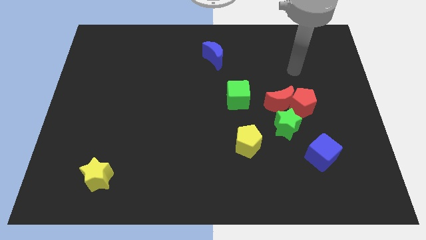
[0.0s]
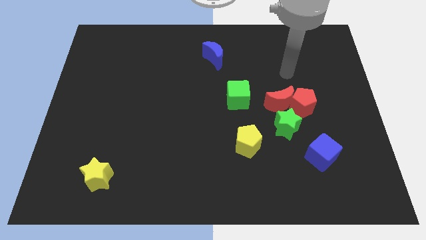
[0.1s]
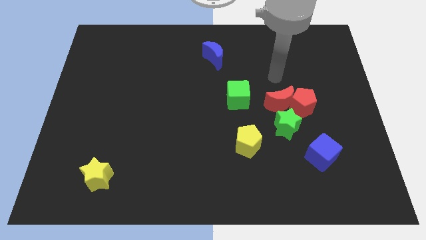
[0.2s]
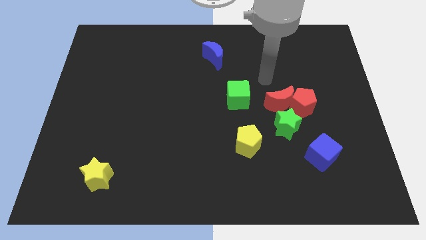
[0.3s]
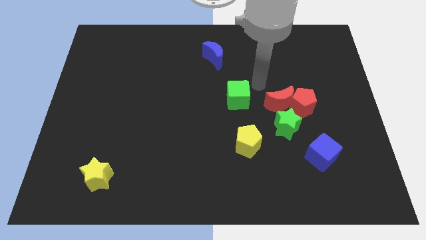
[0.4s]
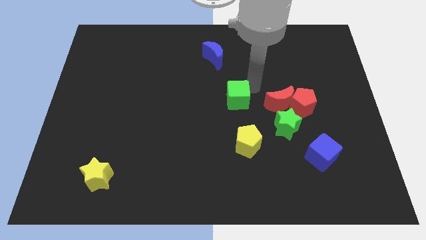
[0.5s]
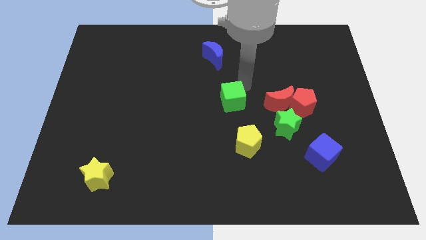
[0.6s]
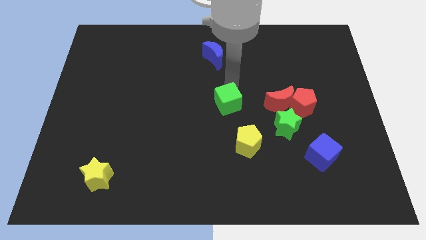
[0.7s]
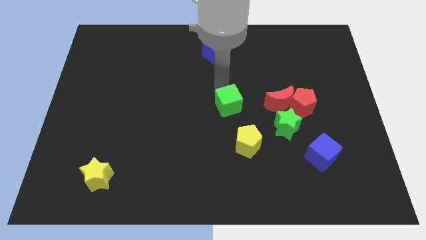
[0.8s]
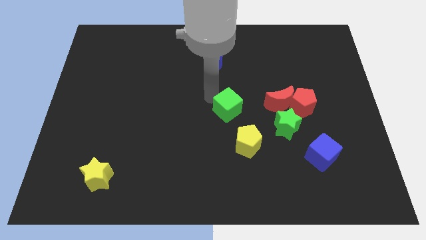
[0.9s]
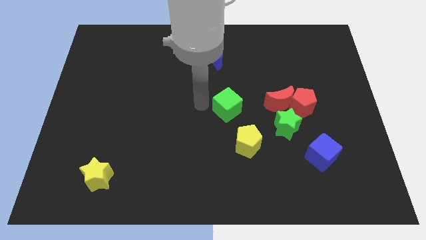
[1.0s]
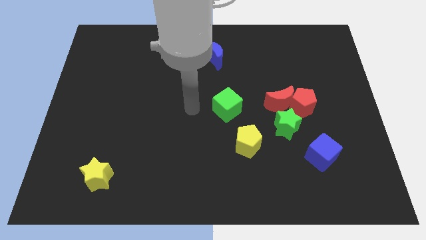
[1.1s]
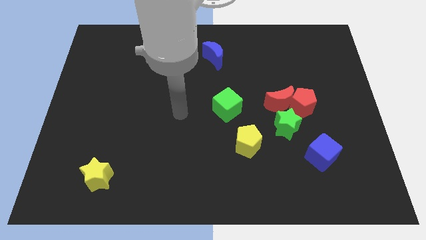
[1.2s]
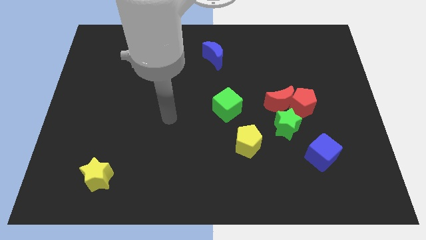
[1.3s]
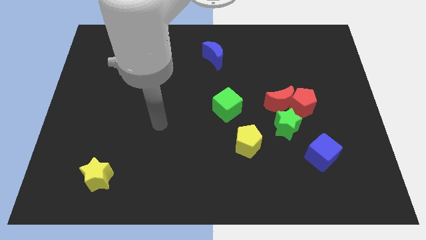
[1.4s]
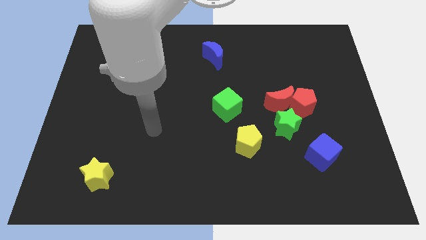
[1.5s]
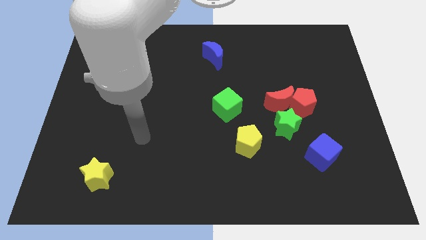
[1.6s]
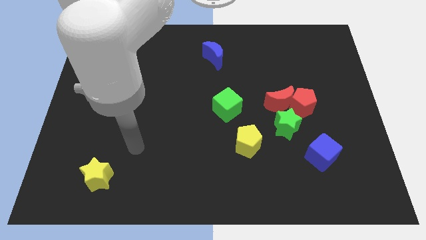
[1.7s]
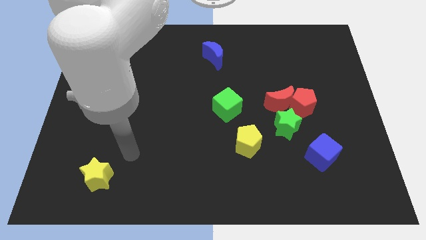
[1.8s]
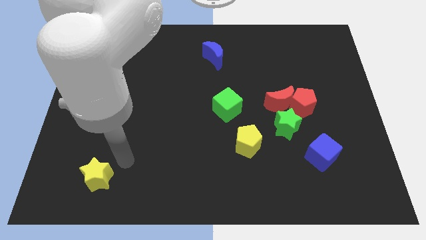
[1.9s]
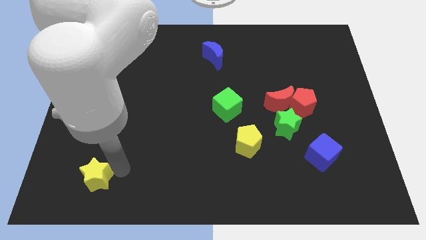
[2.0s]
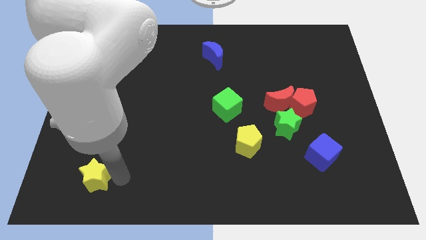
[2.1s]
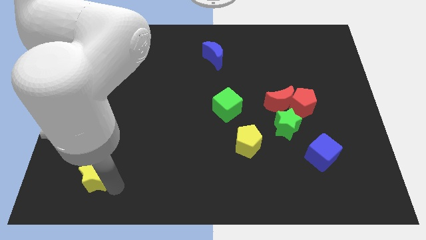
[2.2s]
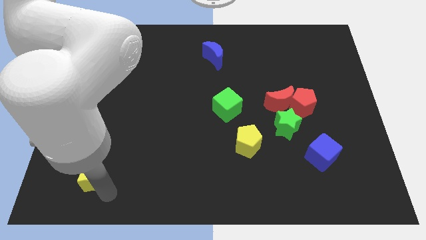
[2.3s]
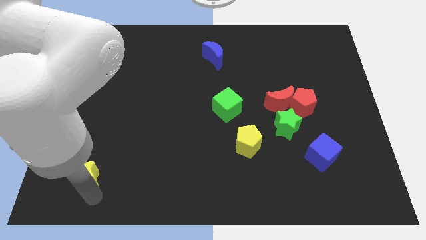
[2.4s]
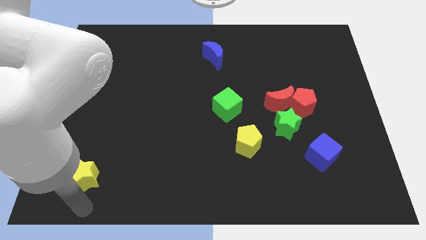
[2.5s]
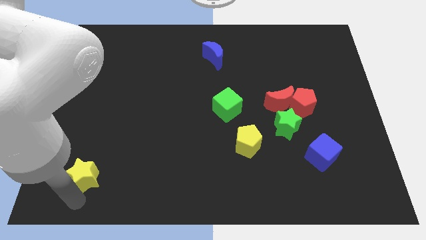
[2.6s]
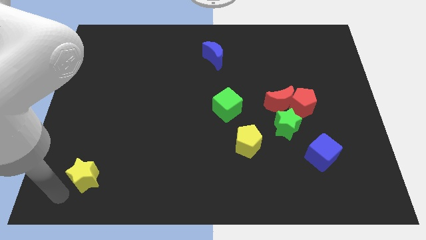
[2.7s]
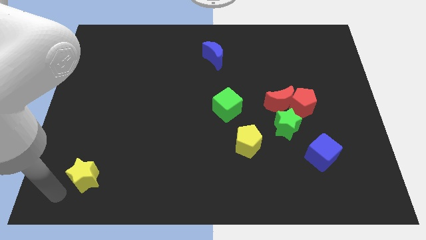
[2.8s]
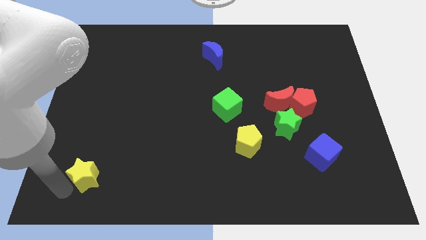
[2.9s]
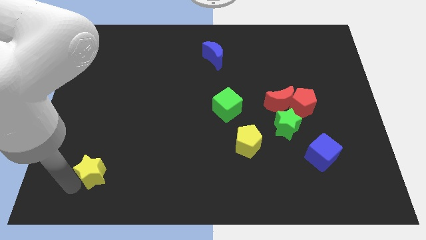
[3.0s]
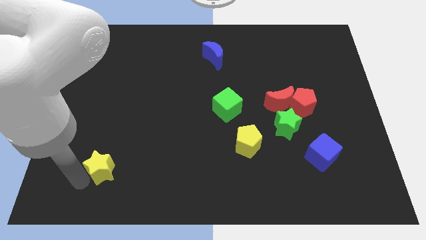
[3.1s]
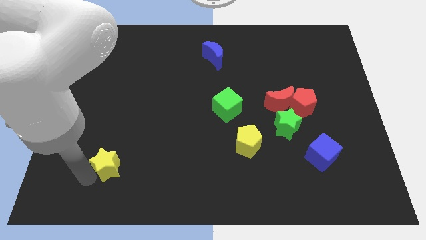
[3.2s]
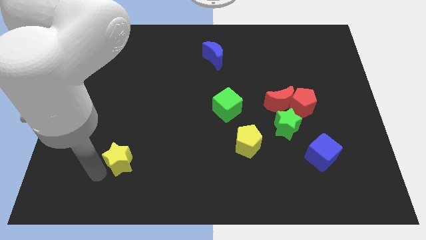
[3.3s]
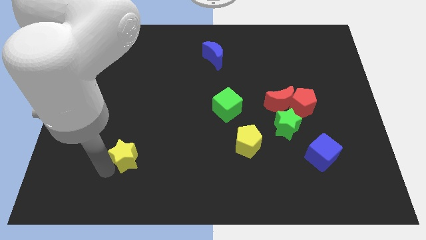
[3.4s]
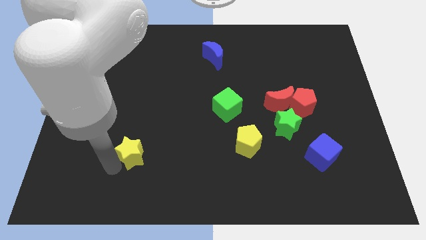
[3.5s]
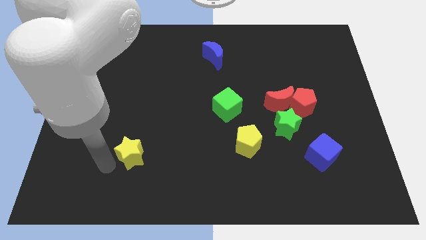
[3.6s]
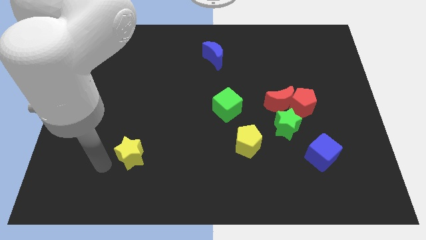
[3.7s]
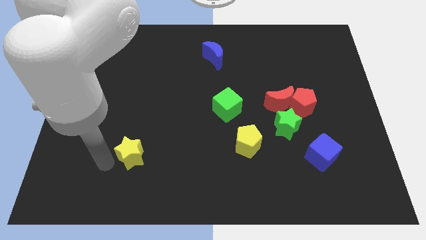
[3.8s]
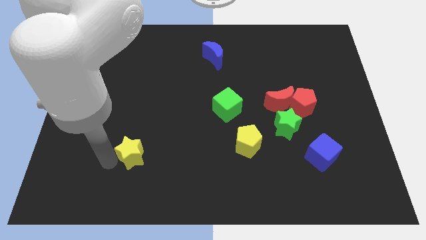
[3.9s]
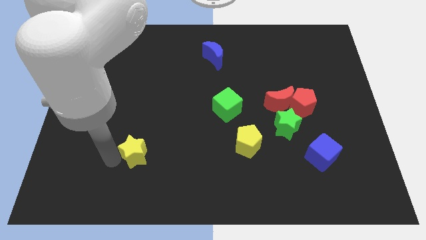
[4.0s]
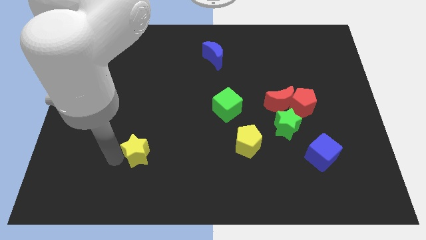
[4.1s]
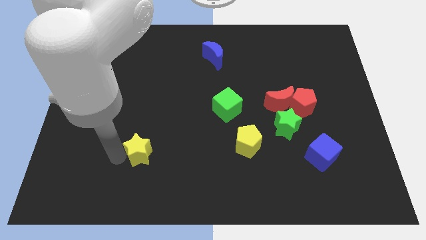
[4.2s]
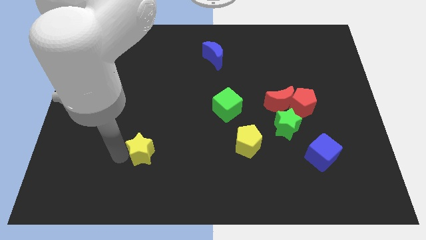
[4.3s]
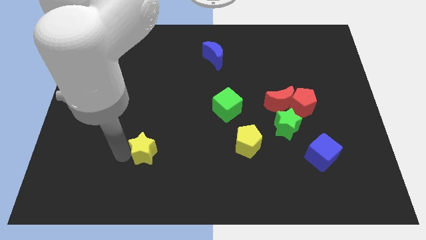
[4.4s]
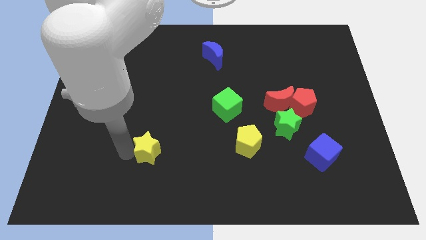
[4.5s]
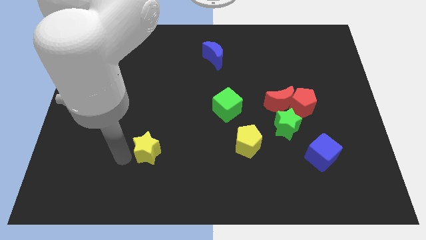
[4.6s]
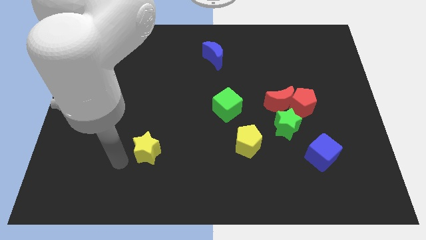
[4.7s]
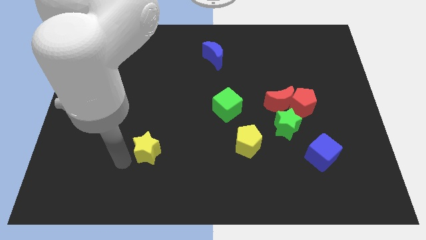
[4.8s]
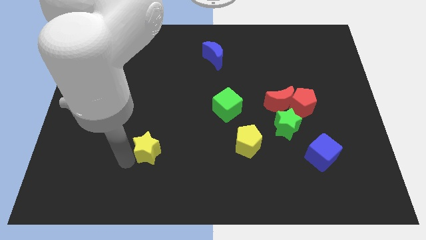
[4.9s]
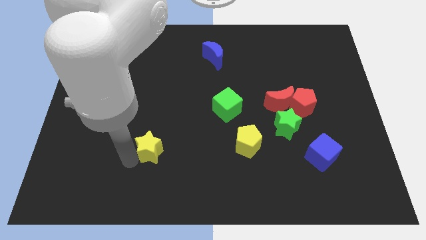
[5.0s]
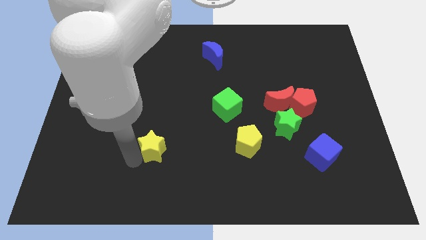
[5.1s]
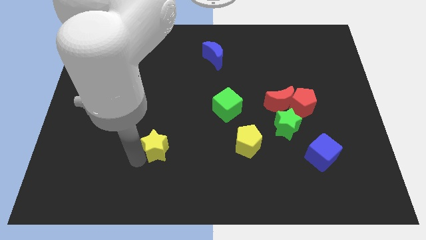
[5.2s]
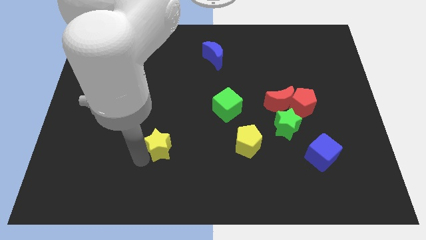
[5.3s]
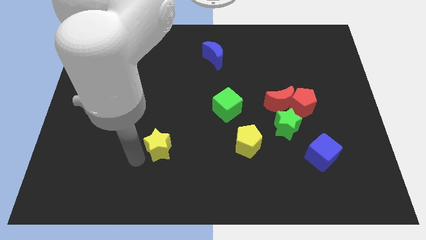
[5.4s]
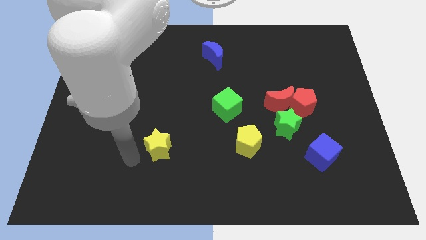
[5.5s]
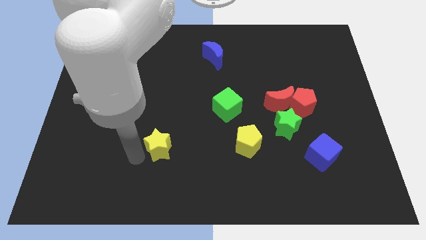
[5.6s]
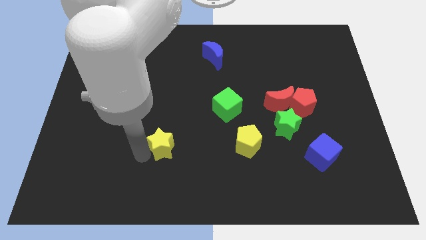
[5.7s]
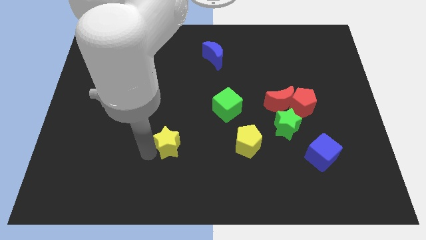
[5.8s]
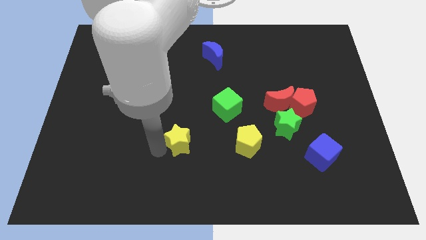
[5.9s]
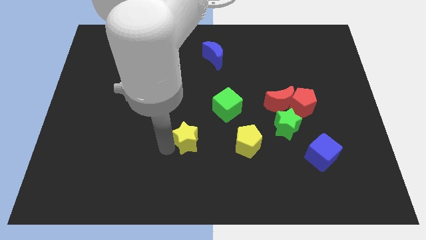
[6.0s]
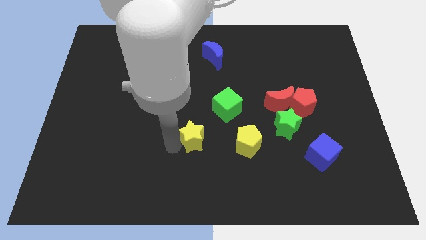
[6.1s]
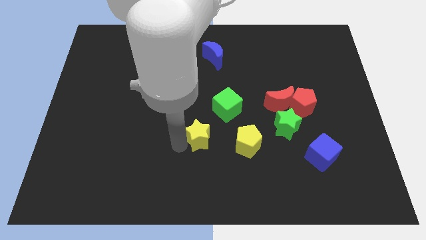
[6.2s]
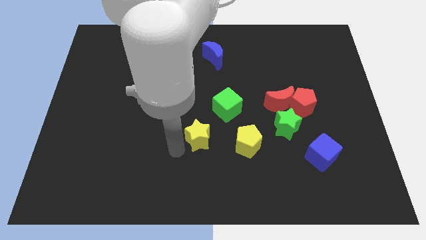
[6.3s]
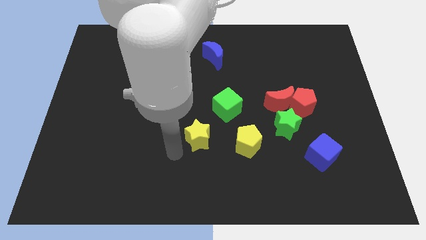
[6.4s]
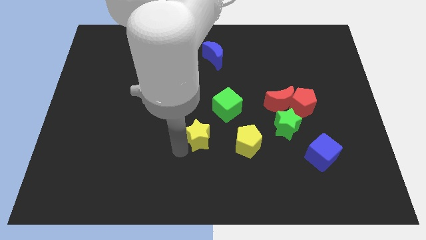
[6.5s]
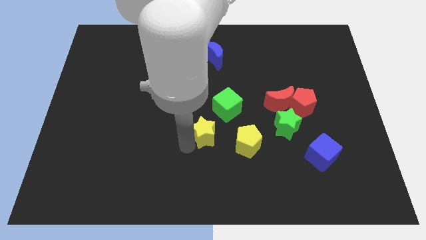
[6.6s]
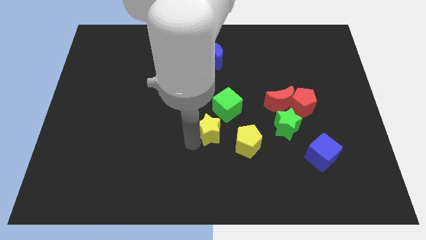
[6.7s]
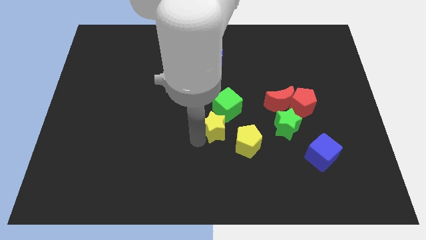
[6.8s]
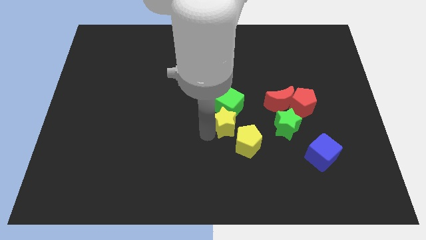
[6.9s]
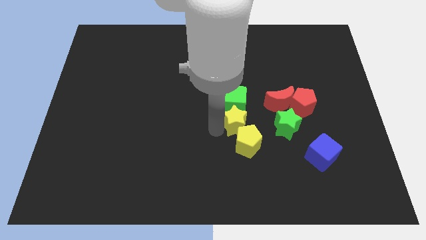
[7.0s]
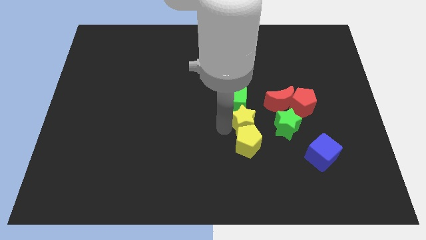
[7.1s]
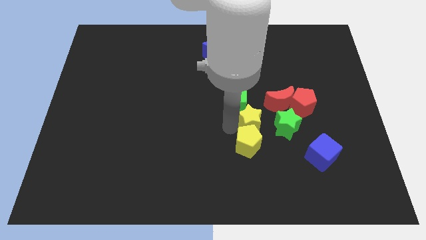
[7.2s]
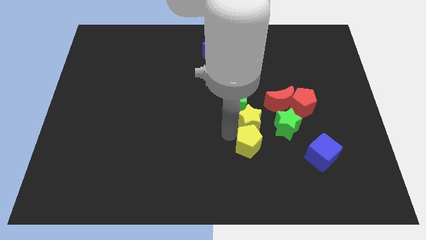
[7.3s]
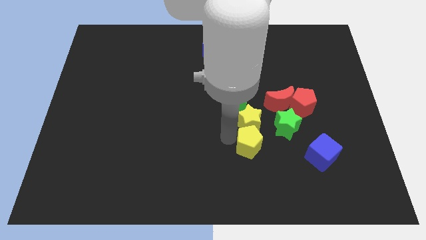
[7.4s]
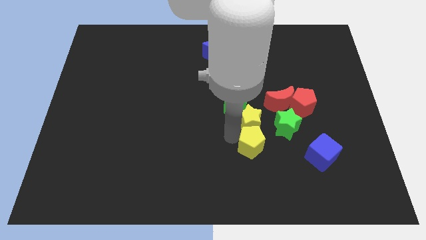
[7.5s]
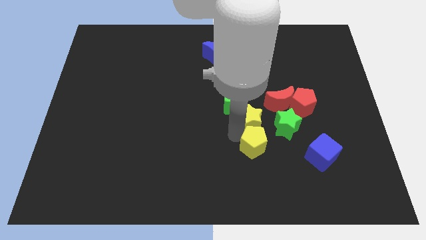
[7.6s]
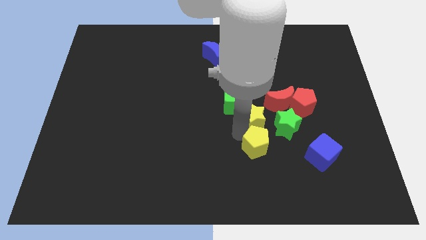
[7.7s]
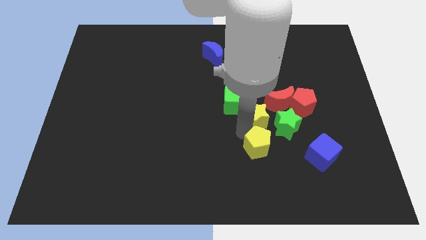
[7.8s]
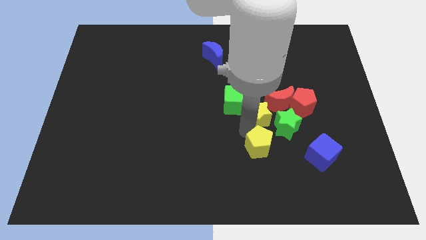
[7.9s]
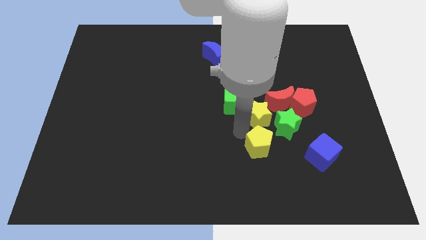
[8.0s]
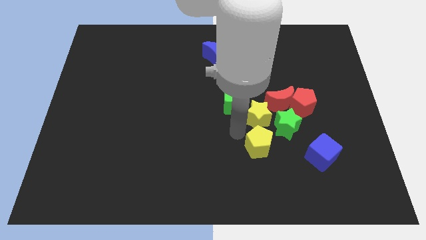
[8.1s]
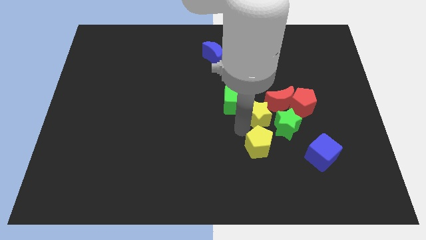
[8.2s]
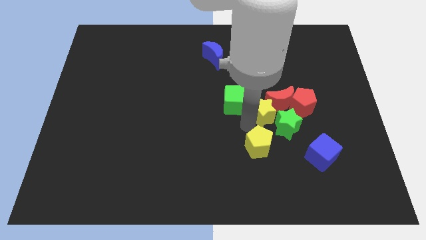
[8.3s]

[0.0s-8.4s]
push the yellow star next to the red moon
